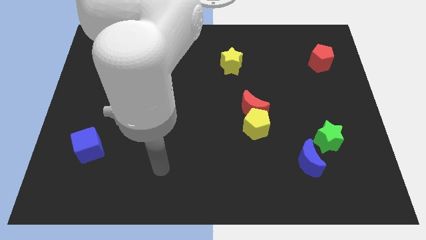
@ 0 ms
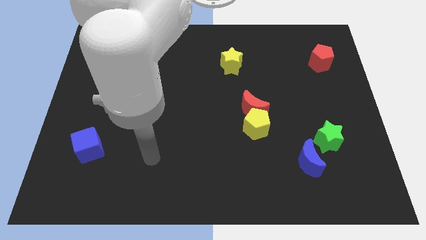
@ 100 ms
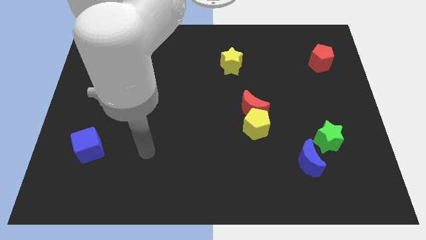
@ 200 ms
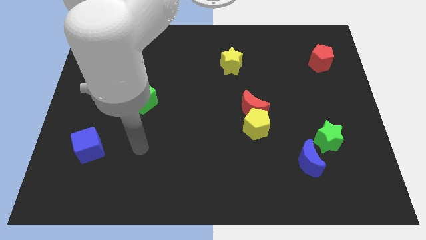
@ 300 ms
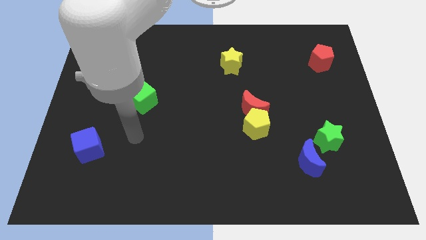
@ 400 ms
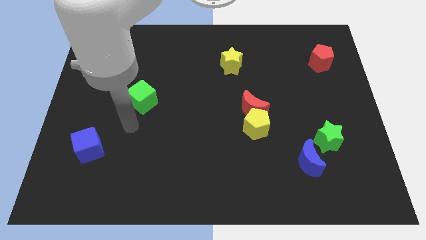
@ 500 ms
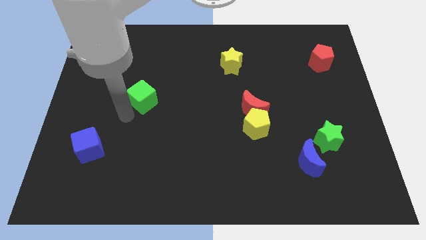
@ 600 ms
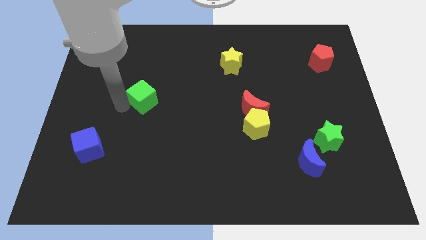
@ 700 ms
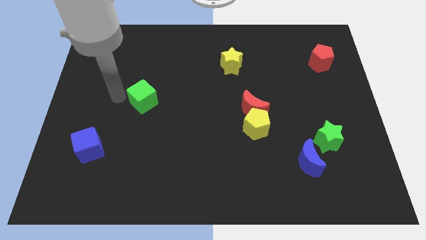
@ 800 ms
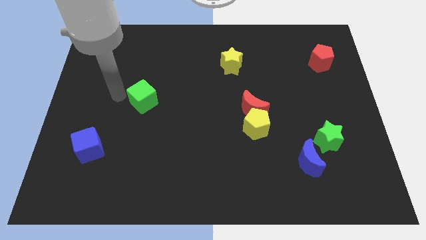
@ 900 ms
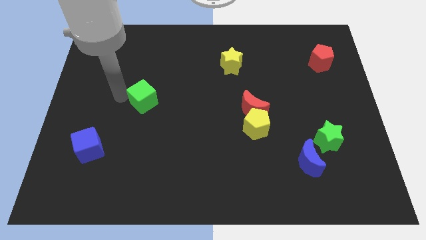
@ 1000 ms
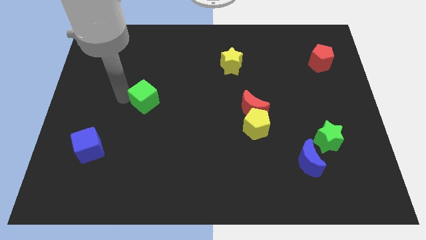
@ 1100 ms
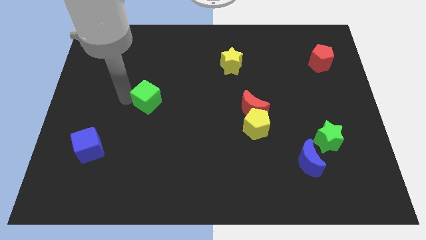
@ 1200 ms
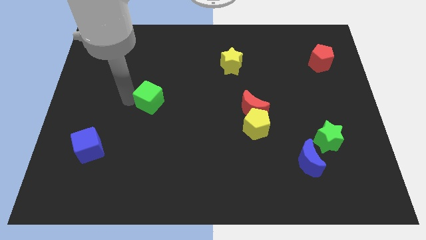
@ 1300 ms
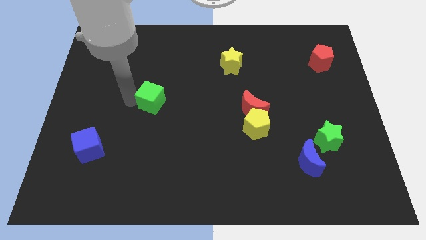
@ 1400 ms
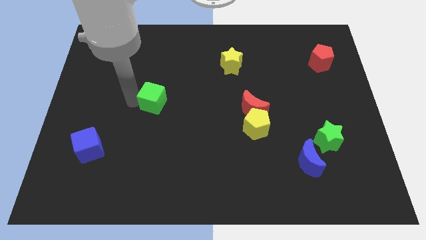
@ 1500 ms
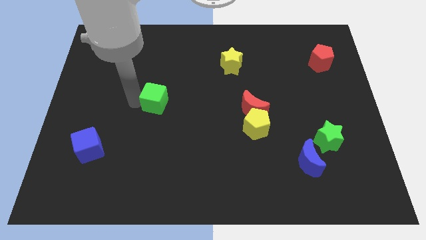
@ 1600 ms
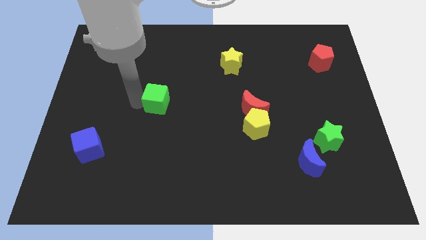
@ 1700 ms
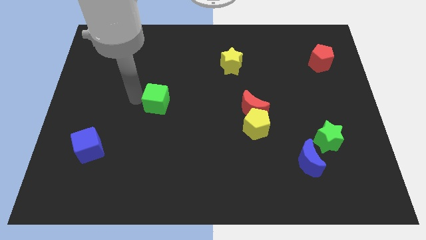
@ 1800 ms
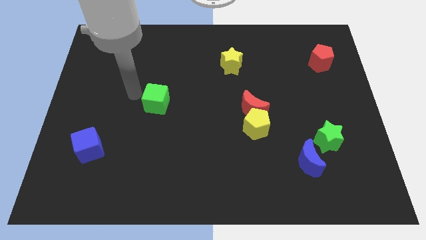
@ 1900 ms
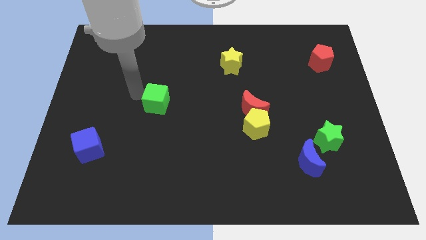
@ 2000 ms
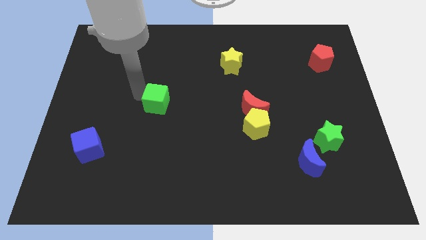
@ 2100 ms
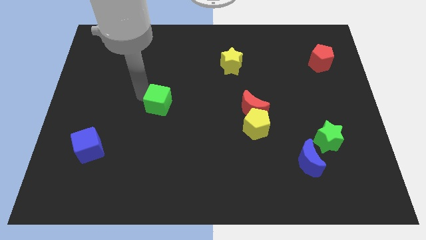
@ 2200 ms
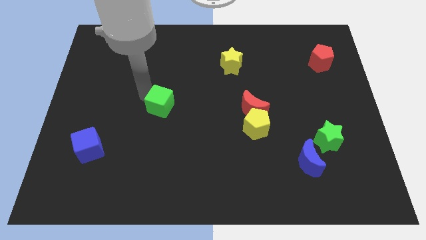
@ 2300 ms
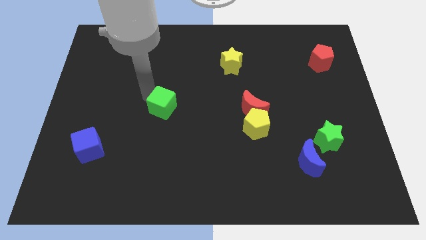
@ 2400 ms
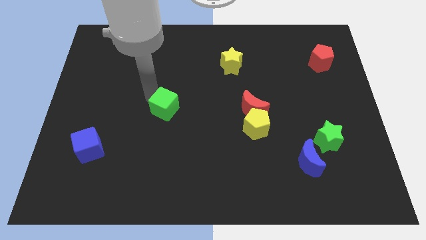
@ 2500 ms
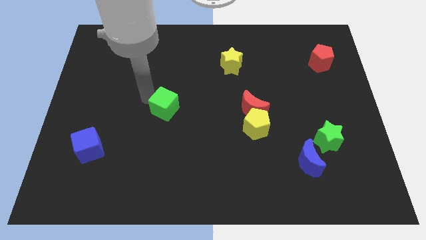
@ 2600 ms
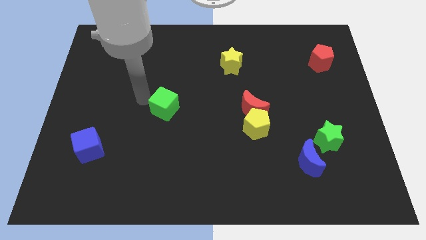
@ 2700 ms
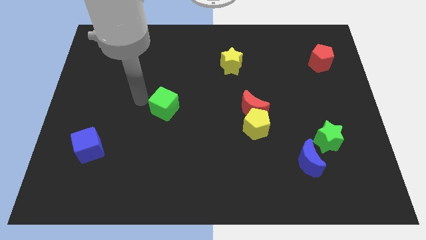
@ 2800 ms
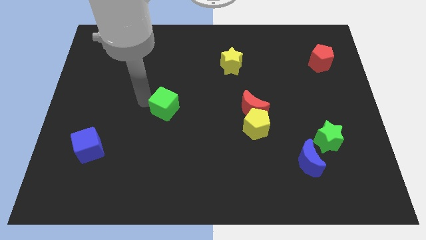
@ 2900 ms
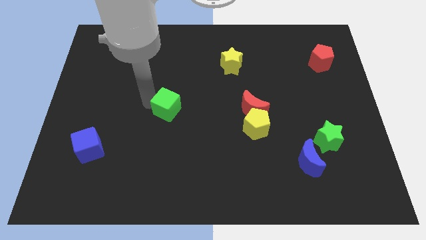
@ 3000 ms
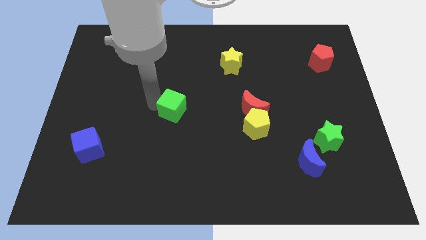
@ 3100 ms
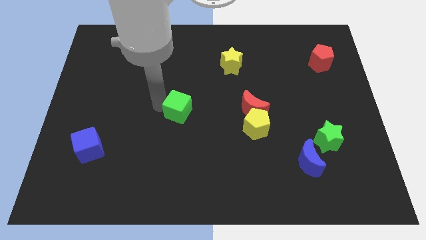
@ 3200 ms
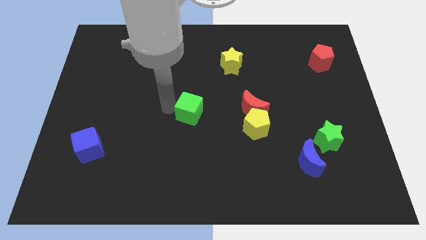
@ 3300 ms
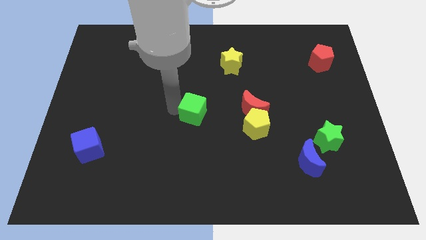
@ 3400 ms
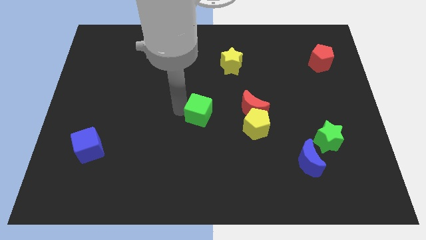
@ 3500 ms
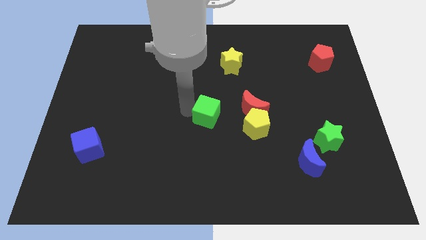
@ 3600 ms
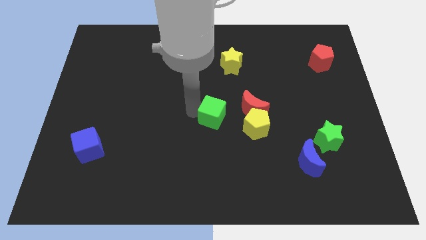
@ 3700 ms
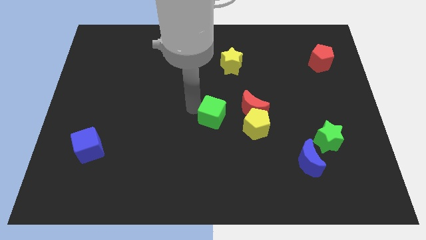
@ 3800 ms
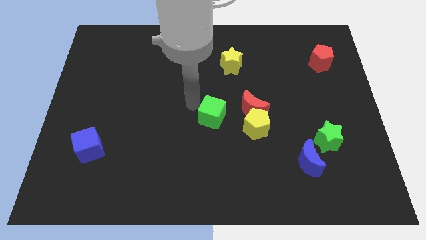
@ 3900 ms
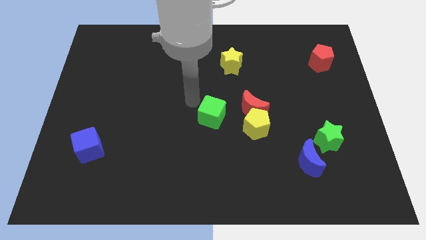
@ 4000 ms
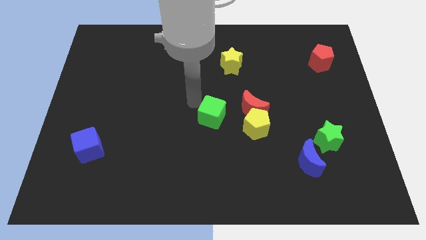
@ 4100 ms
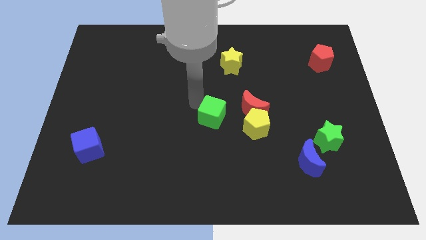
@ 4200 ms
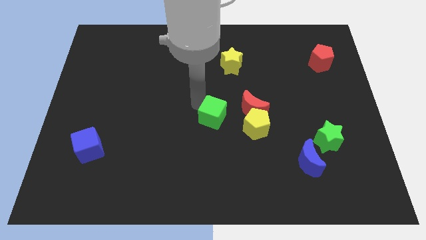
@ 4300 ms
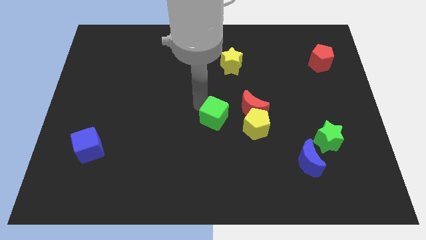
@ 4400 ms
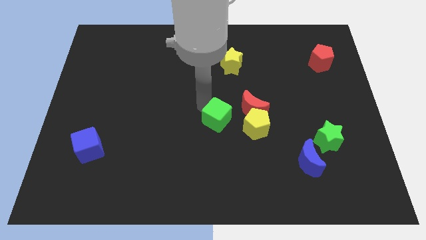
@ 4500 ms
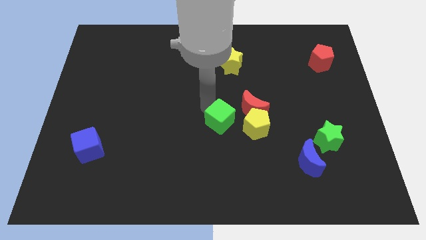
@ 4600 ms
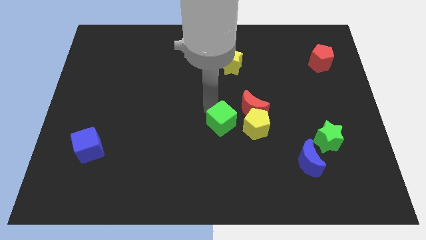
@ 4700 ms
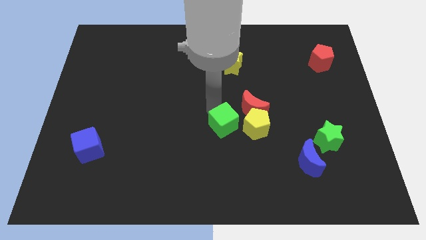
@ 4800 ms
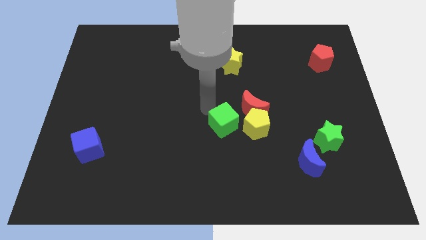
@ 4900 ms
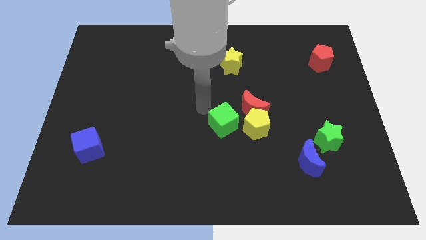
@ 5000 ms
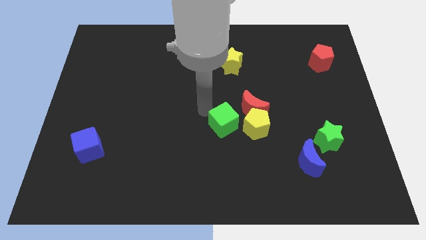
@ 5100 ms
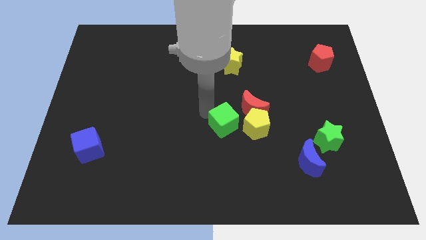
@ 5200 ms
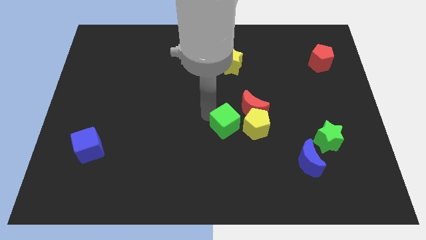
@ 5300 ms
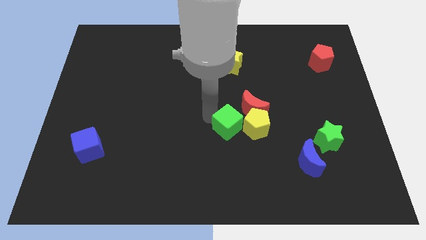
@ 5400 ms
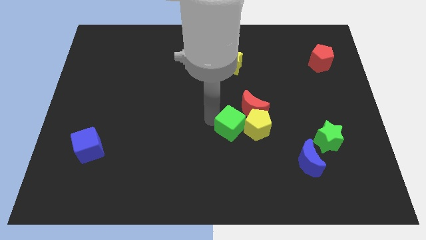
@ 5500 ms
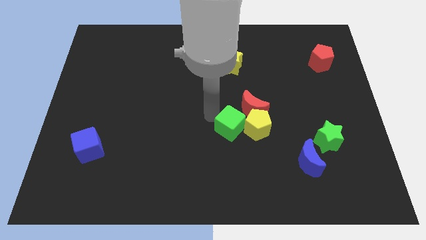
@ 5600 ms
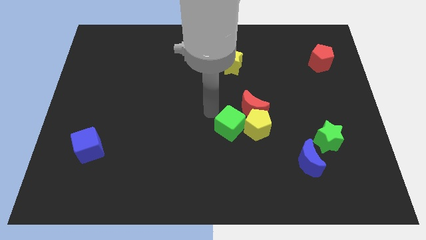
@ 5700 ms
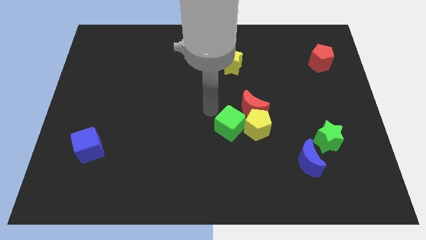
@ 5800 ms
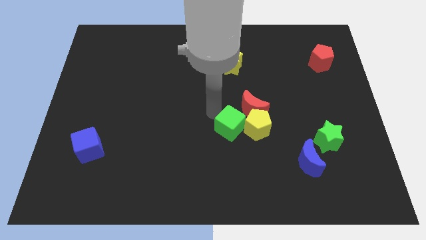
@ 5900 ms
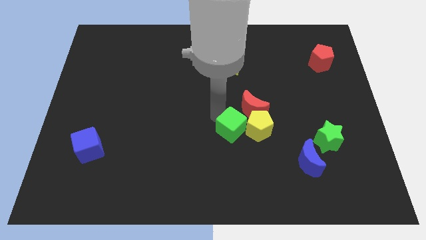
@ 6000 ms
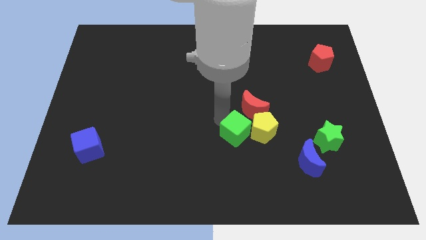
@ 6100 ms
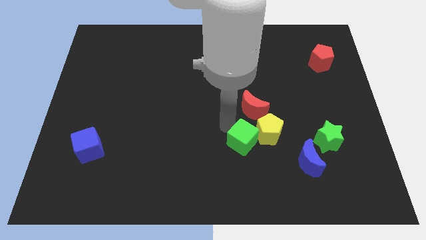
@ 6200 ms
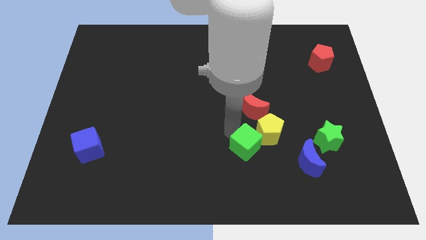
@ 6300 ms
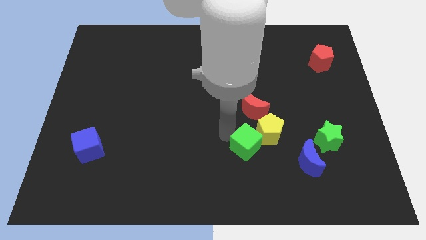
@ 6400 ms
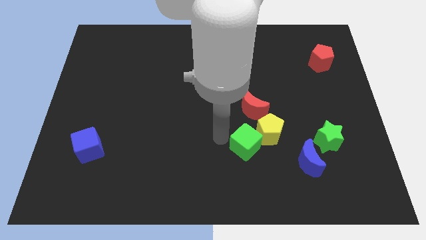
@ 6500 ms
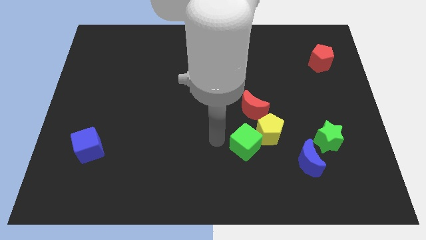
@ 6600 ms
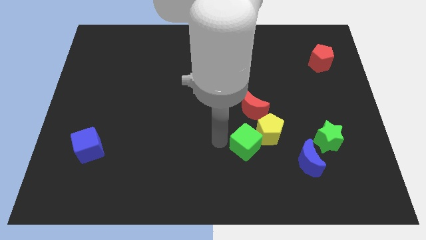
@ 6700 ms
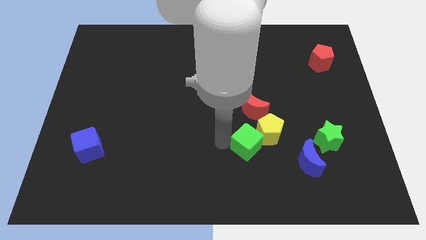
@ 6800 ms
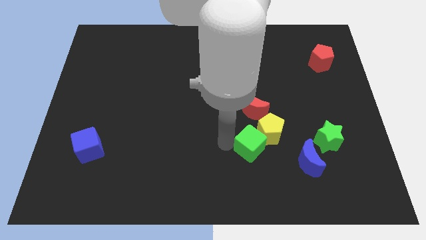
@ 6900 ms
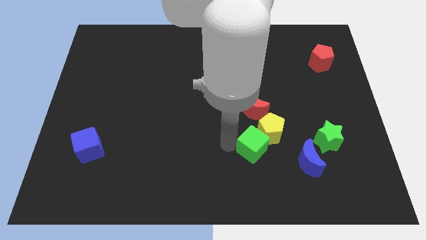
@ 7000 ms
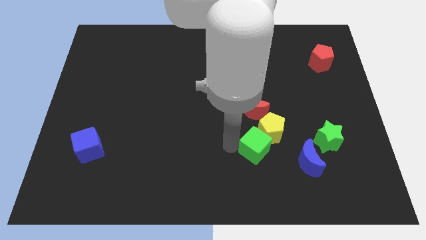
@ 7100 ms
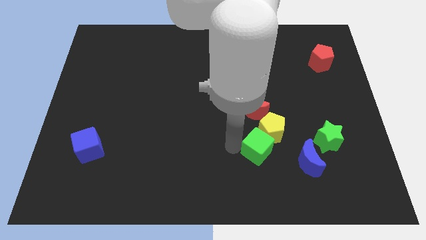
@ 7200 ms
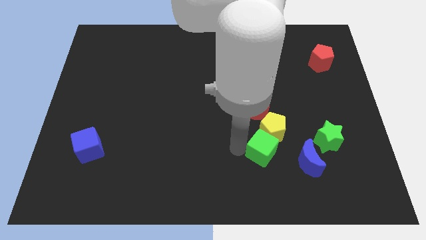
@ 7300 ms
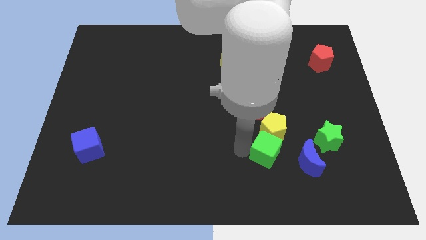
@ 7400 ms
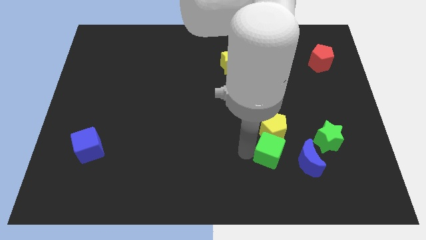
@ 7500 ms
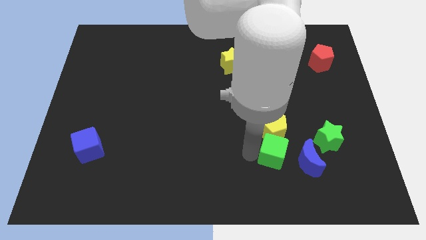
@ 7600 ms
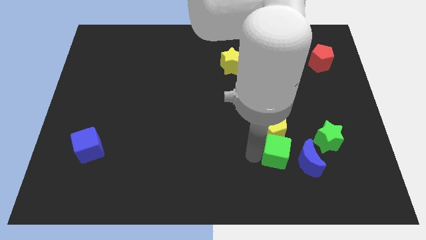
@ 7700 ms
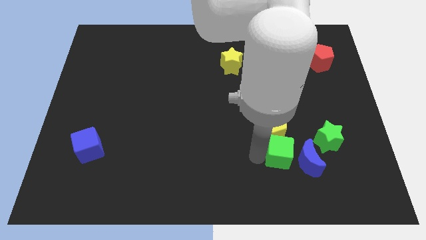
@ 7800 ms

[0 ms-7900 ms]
push the green cube towards the blue moon
